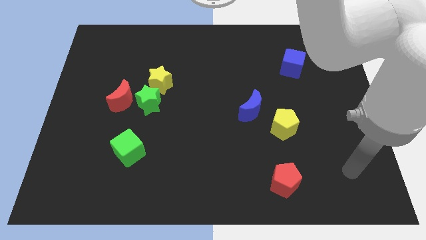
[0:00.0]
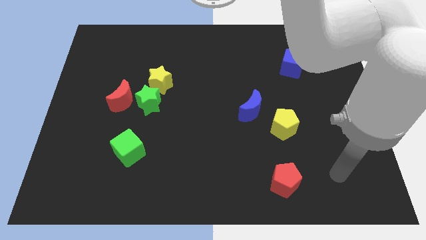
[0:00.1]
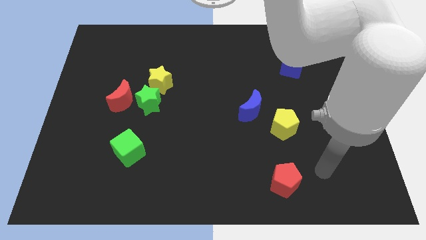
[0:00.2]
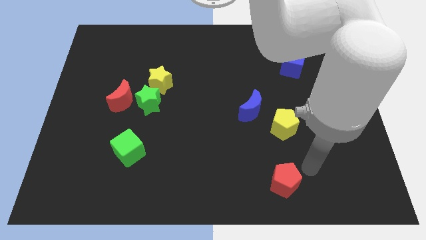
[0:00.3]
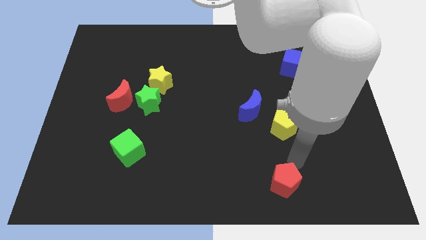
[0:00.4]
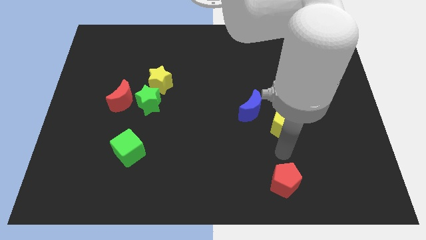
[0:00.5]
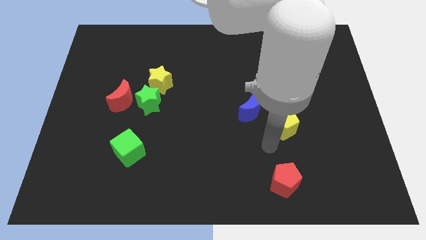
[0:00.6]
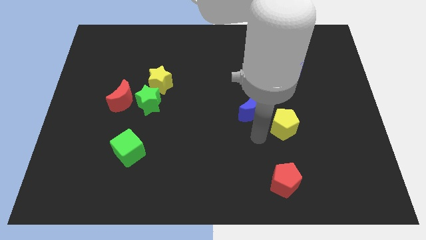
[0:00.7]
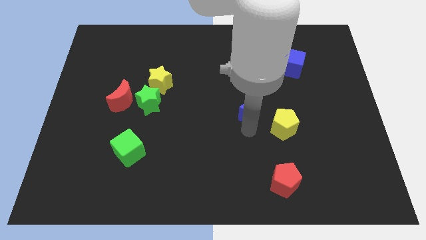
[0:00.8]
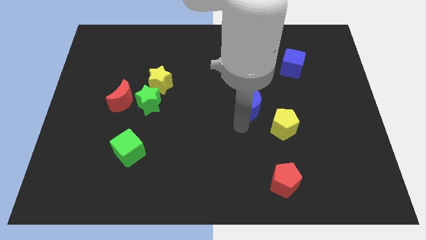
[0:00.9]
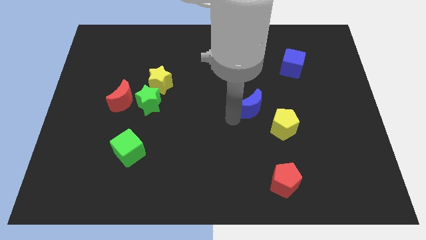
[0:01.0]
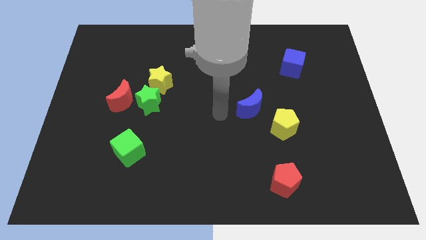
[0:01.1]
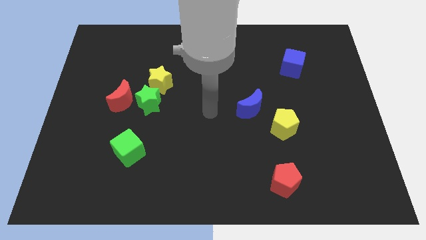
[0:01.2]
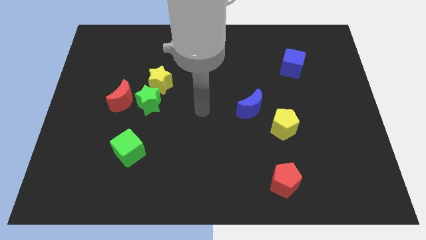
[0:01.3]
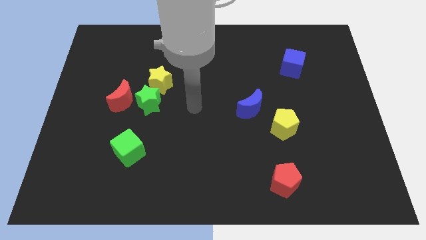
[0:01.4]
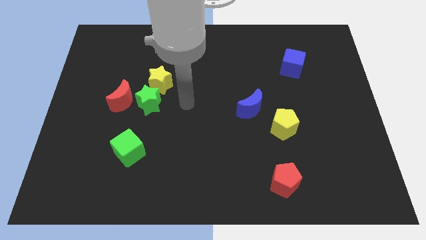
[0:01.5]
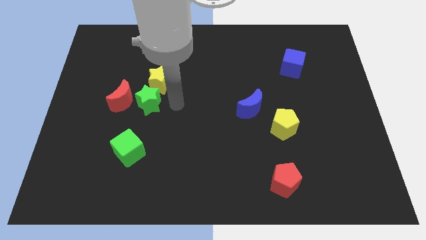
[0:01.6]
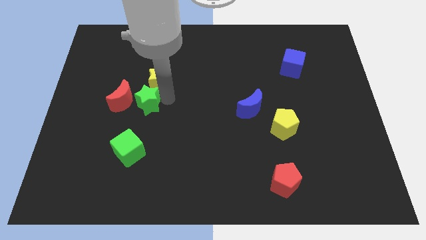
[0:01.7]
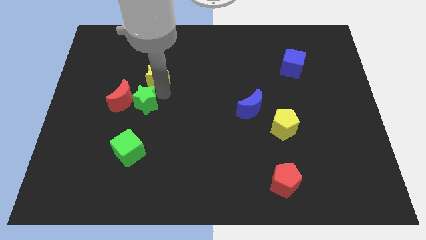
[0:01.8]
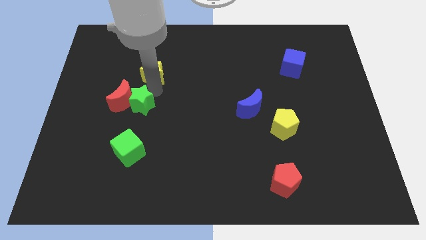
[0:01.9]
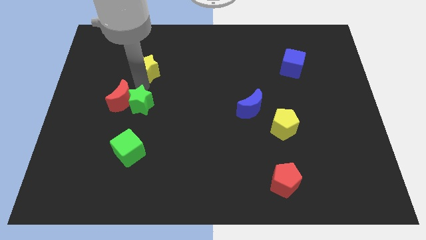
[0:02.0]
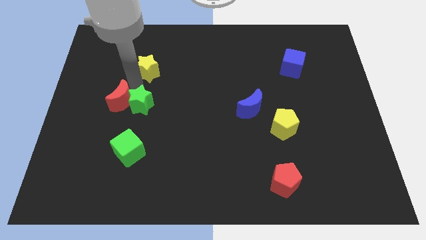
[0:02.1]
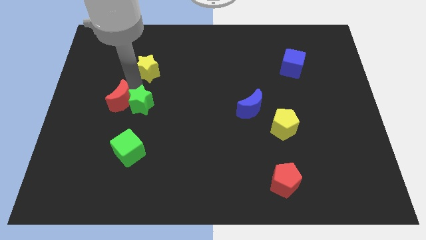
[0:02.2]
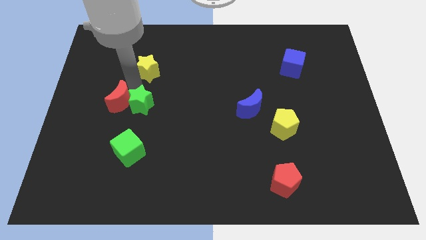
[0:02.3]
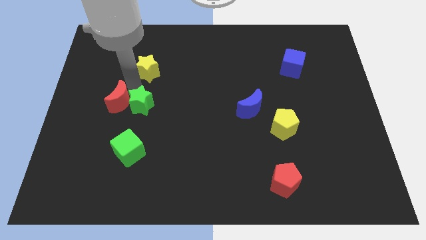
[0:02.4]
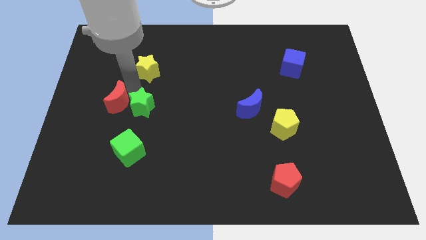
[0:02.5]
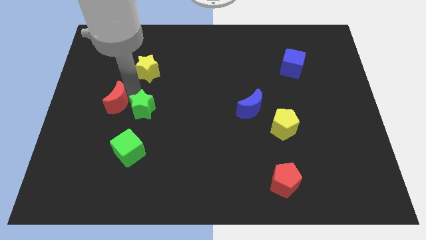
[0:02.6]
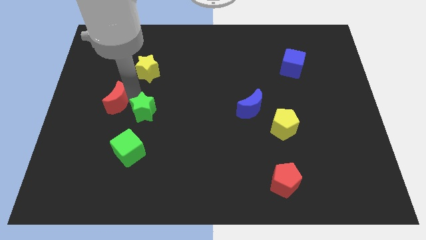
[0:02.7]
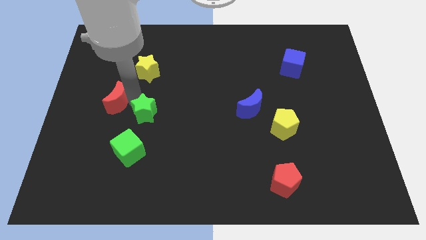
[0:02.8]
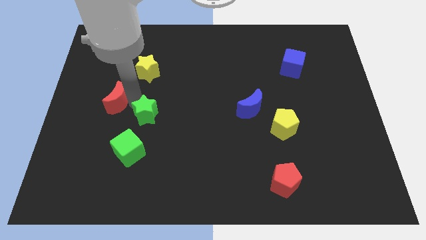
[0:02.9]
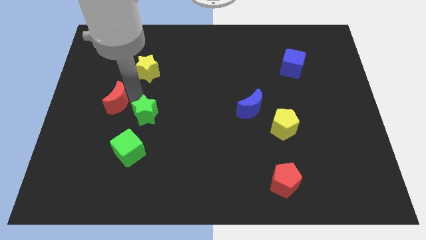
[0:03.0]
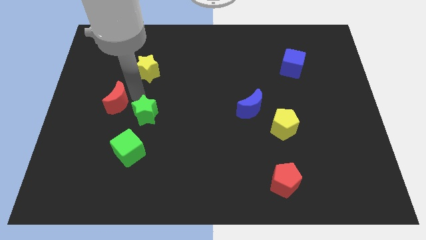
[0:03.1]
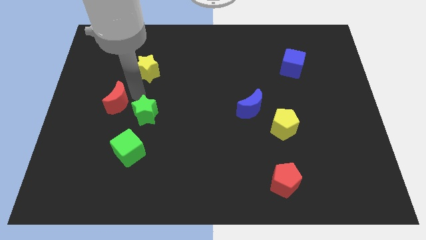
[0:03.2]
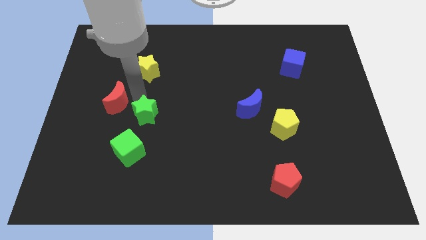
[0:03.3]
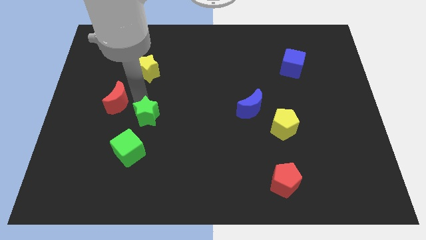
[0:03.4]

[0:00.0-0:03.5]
move the green star away from the yellow star and red moon

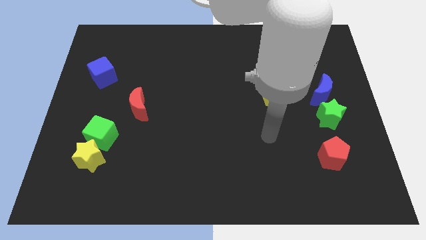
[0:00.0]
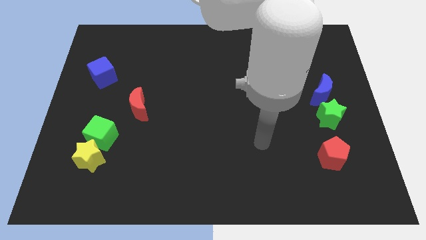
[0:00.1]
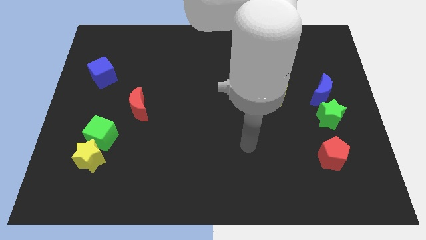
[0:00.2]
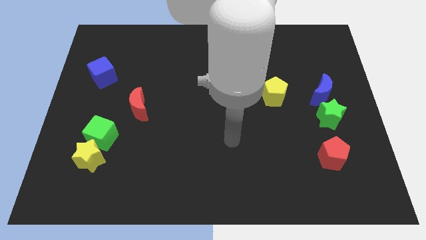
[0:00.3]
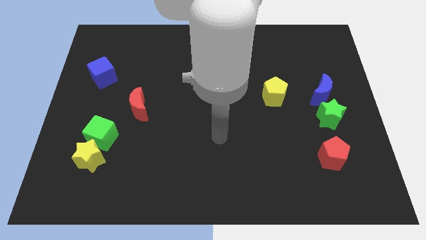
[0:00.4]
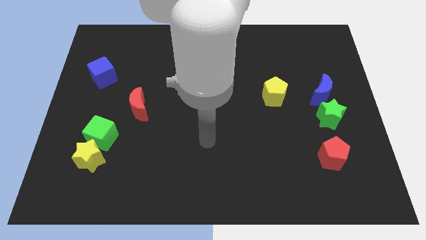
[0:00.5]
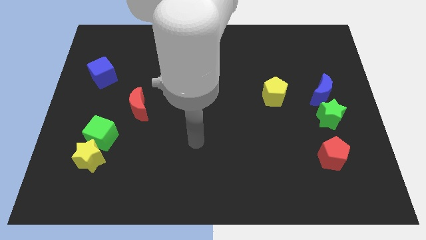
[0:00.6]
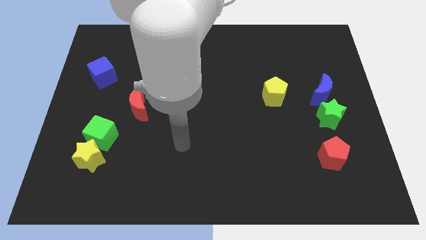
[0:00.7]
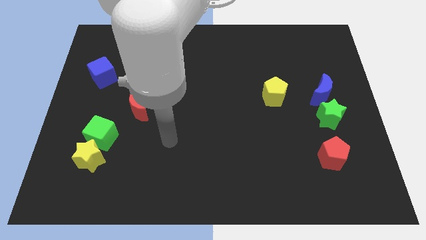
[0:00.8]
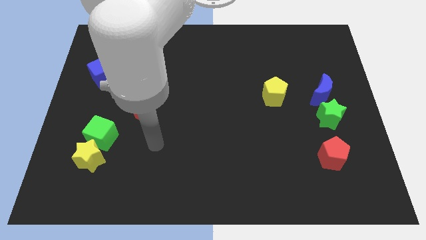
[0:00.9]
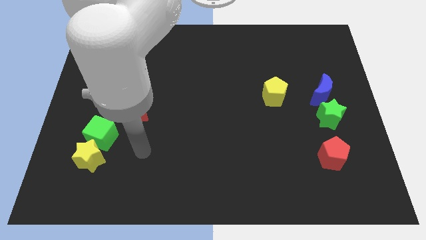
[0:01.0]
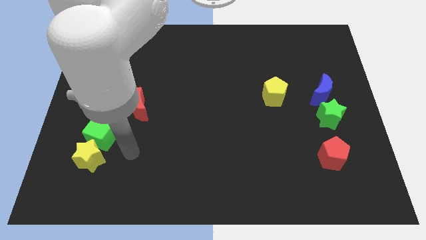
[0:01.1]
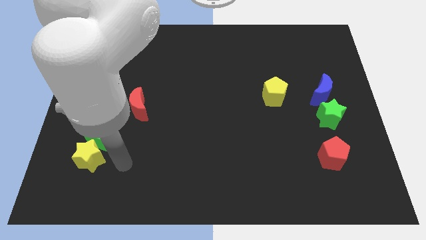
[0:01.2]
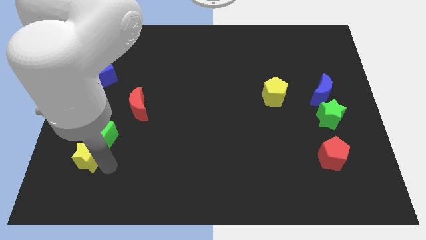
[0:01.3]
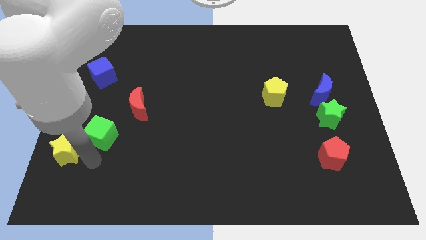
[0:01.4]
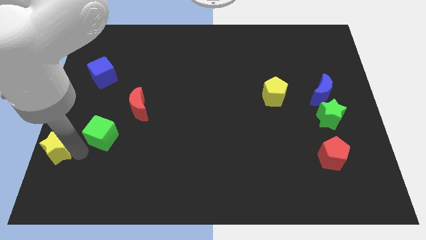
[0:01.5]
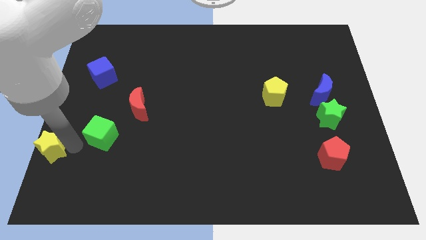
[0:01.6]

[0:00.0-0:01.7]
move the green cube away from the yellow star

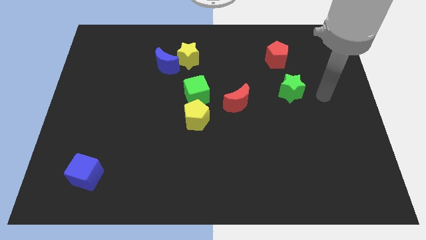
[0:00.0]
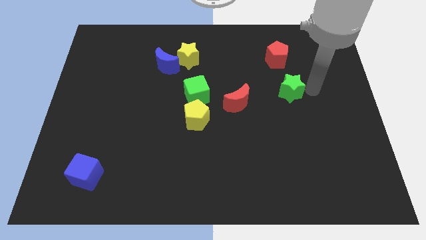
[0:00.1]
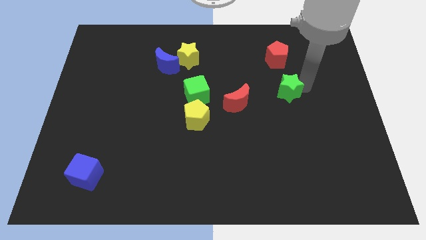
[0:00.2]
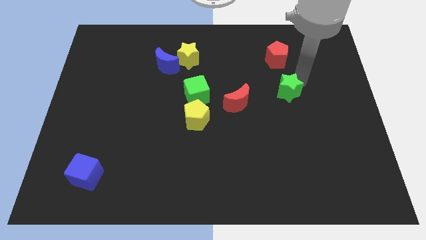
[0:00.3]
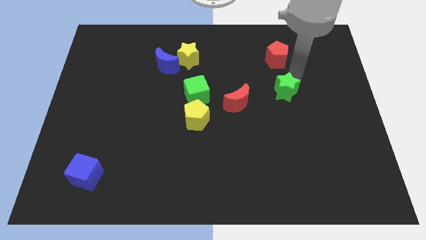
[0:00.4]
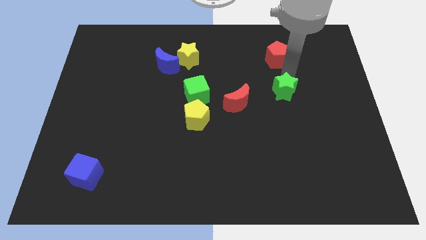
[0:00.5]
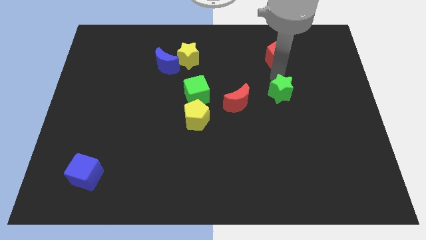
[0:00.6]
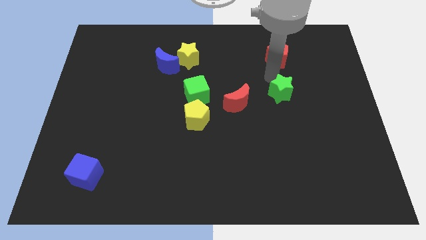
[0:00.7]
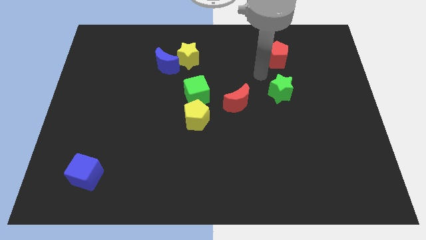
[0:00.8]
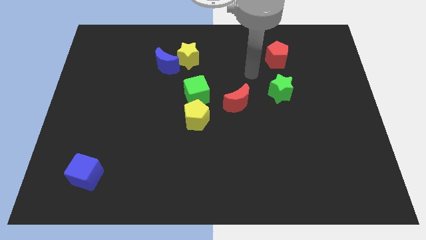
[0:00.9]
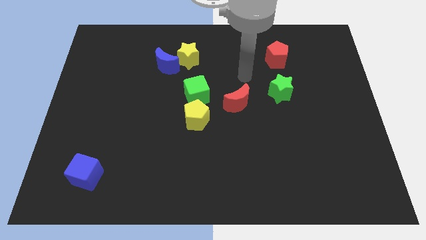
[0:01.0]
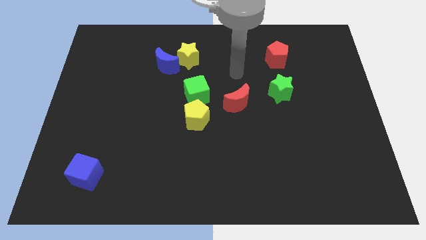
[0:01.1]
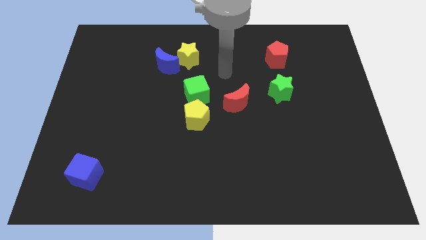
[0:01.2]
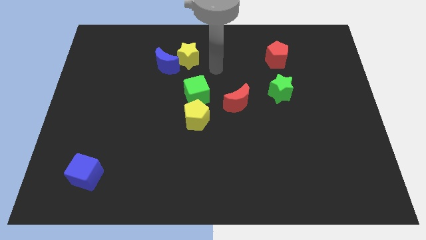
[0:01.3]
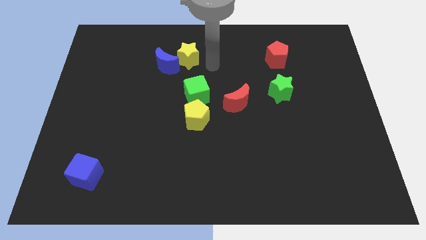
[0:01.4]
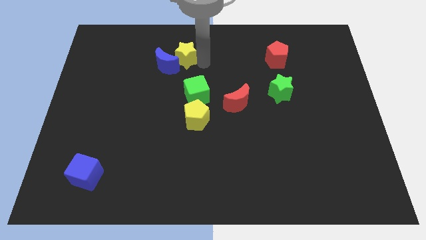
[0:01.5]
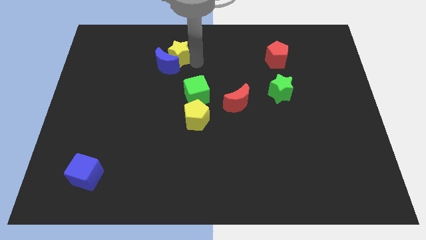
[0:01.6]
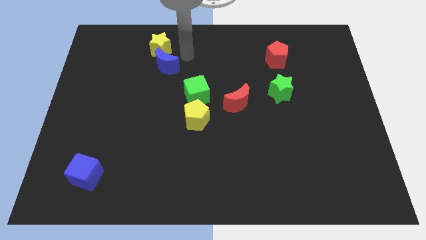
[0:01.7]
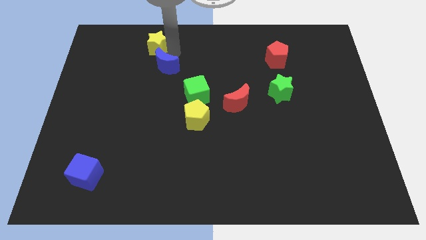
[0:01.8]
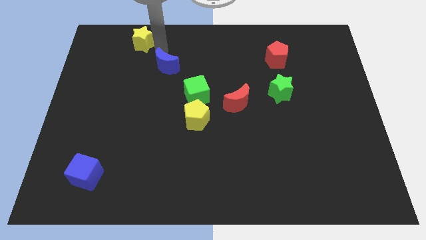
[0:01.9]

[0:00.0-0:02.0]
pull the blue moon apart from the yellow star

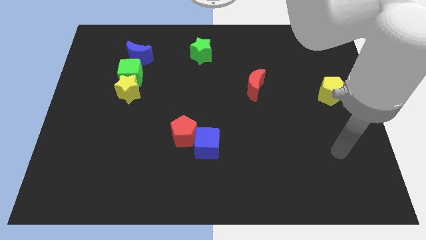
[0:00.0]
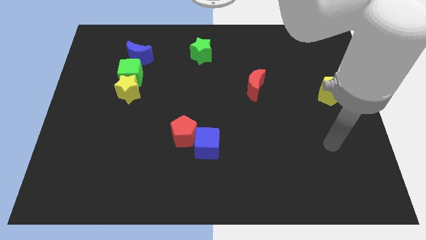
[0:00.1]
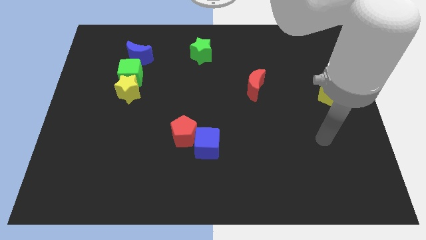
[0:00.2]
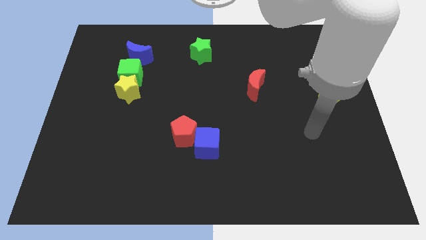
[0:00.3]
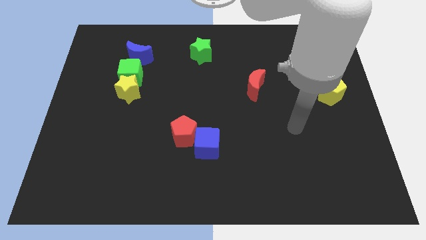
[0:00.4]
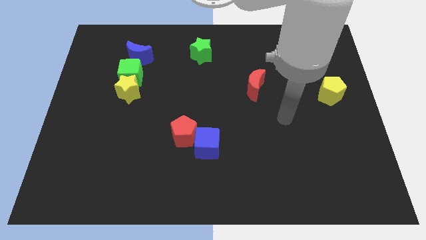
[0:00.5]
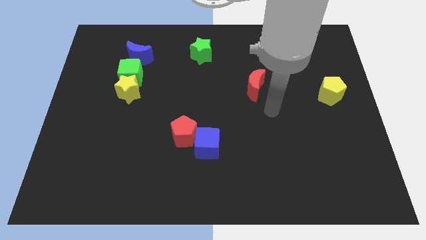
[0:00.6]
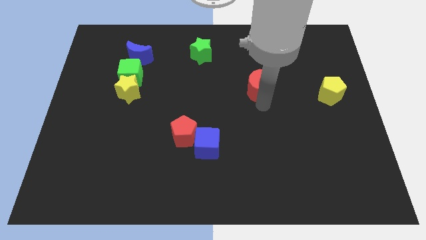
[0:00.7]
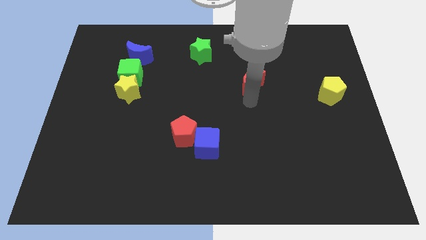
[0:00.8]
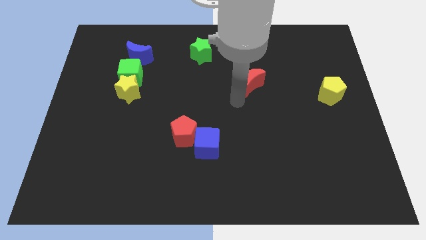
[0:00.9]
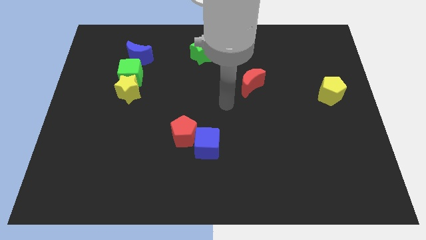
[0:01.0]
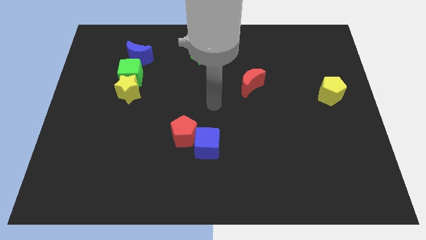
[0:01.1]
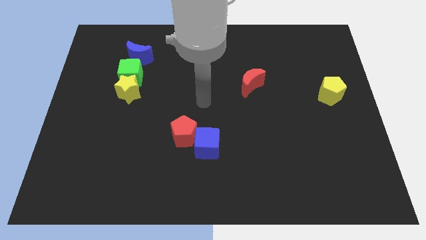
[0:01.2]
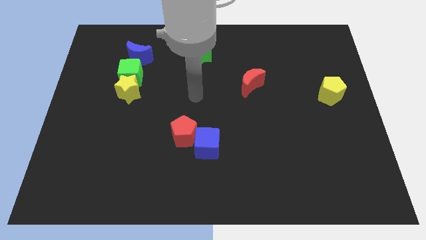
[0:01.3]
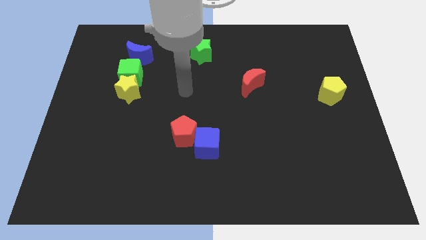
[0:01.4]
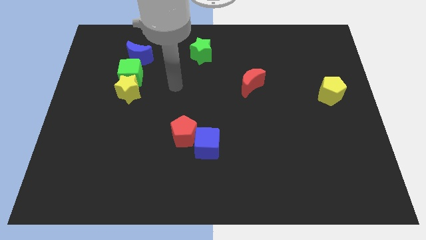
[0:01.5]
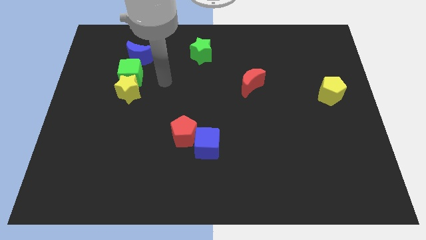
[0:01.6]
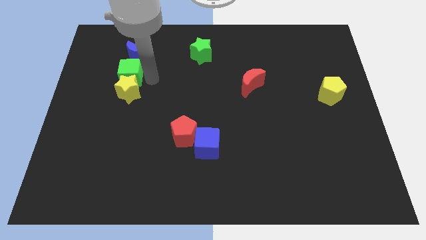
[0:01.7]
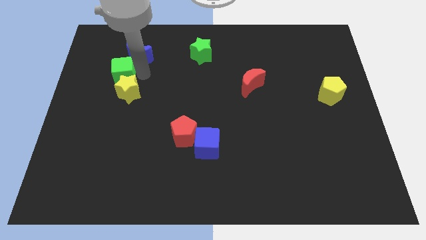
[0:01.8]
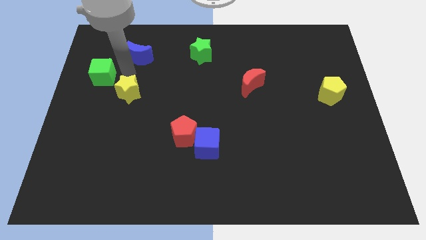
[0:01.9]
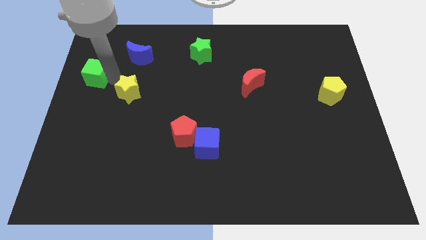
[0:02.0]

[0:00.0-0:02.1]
move the yellow star away from the green cube

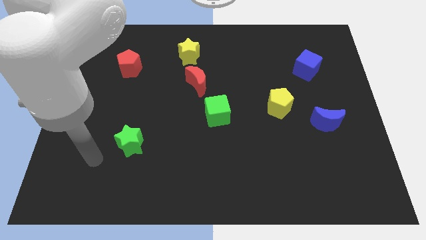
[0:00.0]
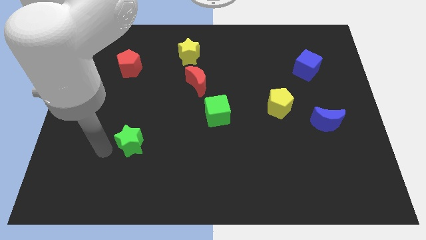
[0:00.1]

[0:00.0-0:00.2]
move the red moon away from the yellow star
